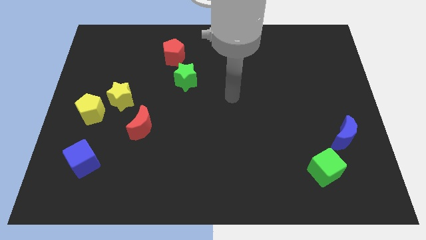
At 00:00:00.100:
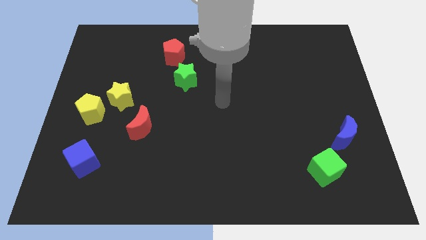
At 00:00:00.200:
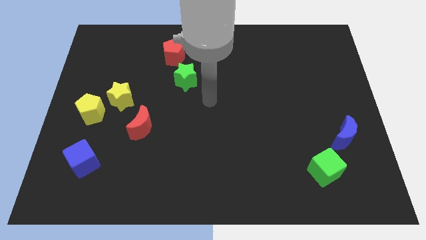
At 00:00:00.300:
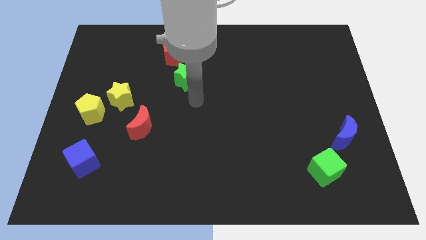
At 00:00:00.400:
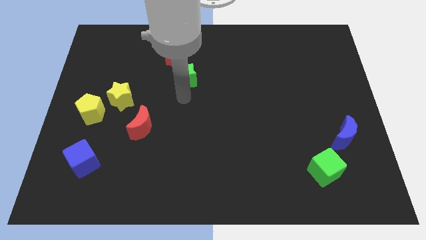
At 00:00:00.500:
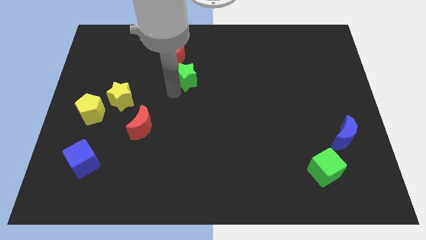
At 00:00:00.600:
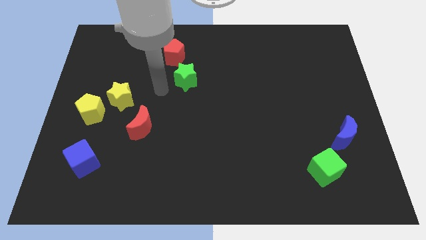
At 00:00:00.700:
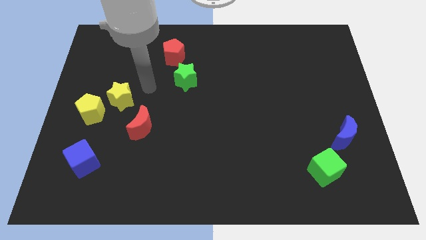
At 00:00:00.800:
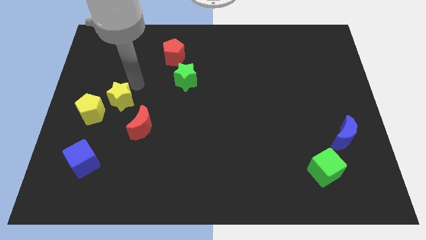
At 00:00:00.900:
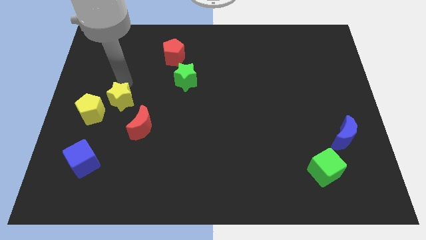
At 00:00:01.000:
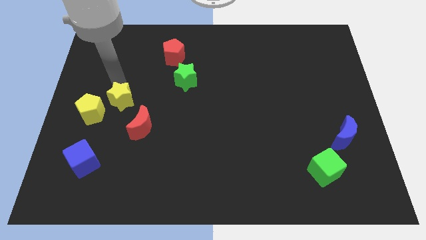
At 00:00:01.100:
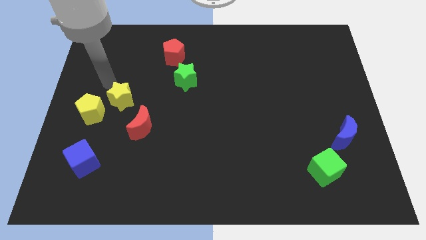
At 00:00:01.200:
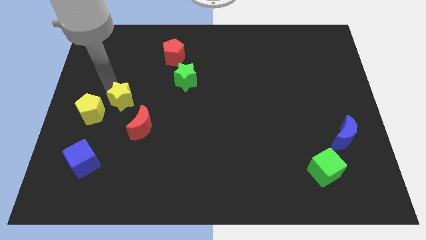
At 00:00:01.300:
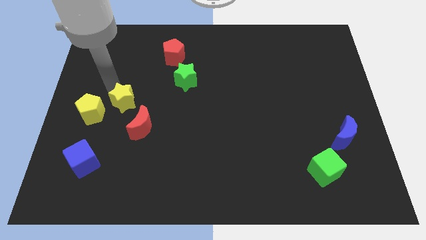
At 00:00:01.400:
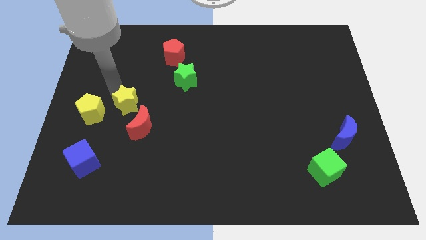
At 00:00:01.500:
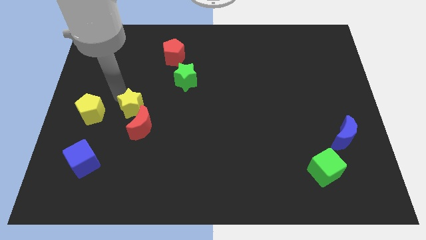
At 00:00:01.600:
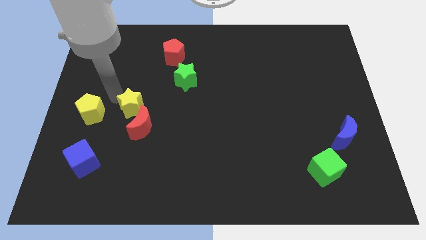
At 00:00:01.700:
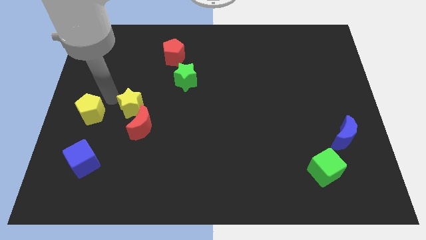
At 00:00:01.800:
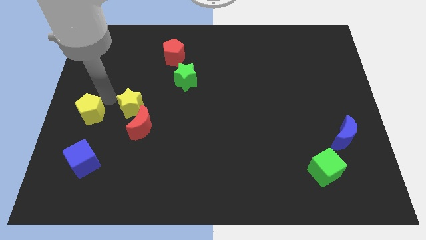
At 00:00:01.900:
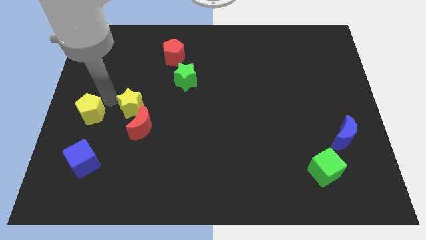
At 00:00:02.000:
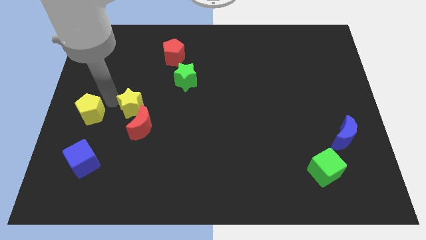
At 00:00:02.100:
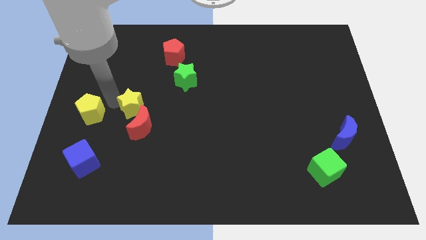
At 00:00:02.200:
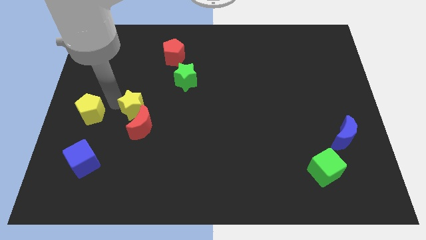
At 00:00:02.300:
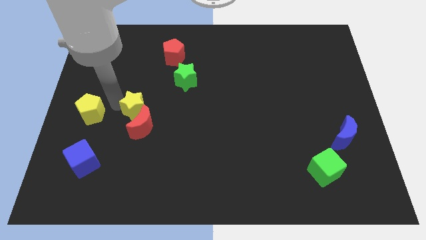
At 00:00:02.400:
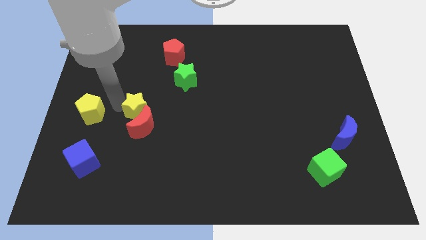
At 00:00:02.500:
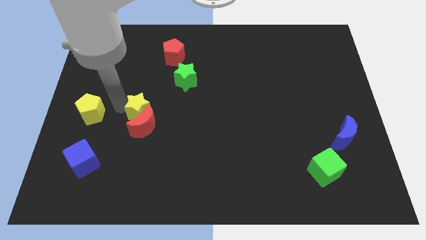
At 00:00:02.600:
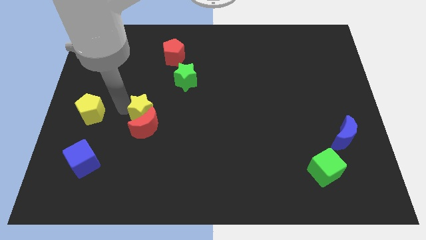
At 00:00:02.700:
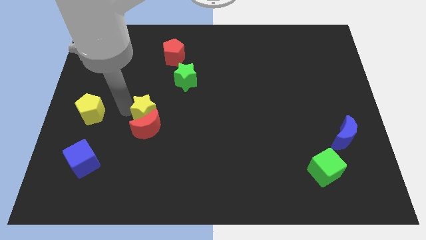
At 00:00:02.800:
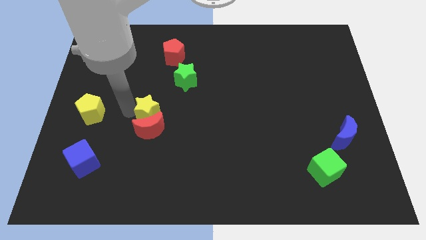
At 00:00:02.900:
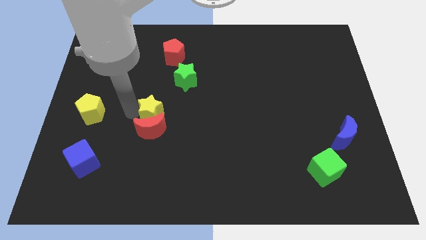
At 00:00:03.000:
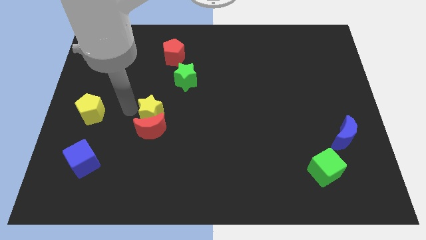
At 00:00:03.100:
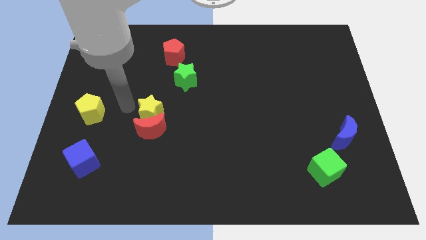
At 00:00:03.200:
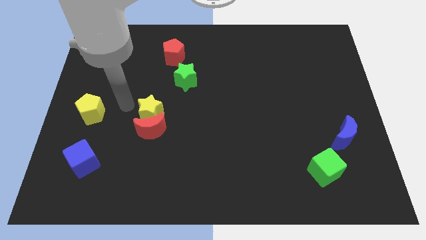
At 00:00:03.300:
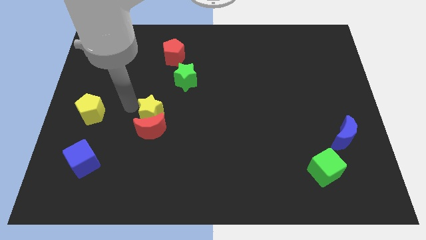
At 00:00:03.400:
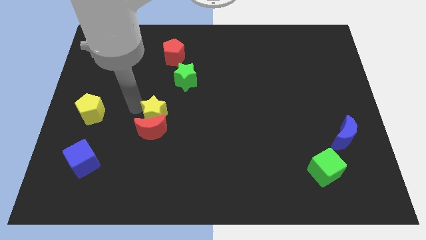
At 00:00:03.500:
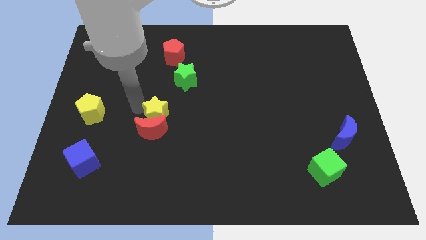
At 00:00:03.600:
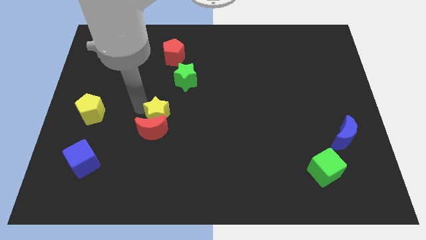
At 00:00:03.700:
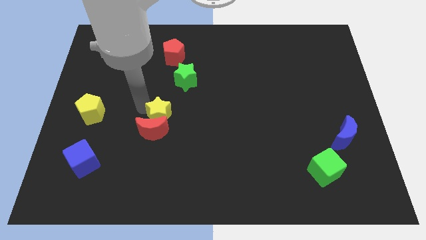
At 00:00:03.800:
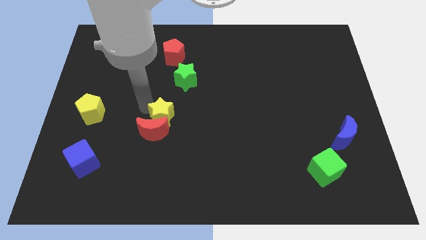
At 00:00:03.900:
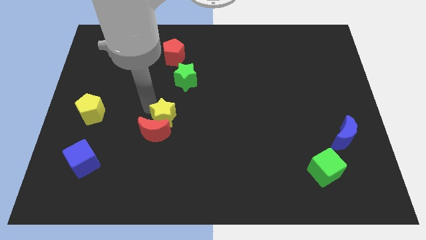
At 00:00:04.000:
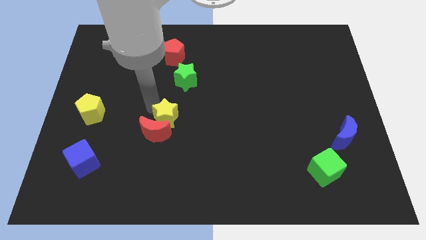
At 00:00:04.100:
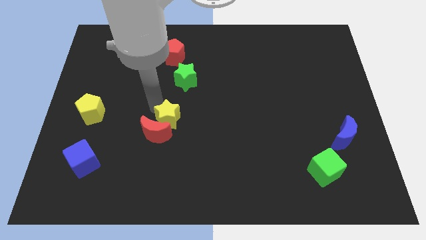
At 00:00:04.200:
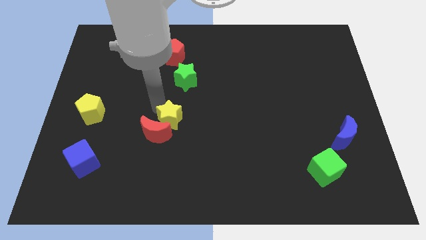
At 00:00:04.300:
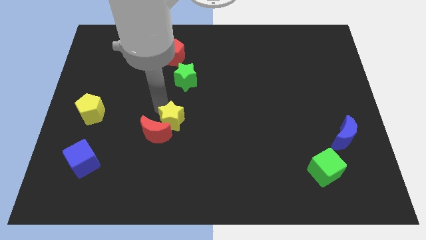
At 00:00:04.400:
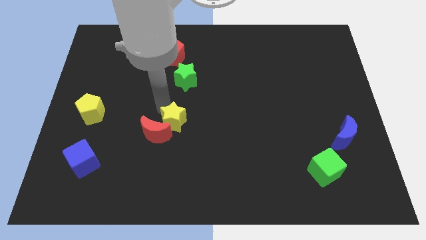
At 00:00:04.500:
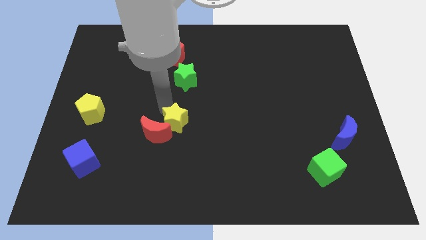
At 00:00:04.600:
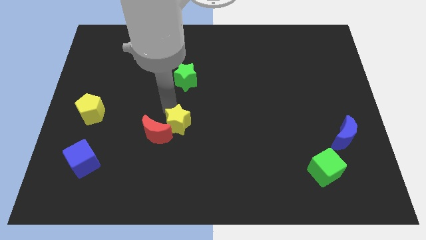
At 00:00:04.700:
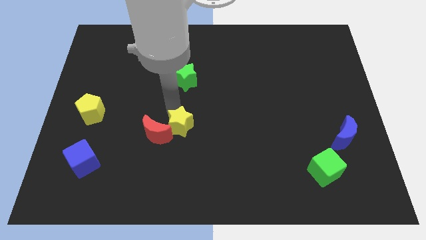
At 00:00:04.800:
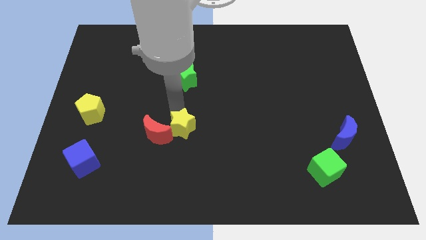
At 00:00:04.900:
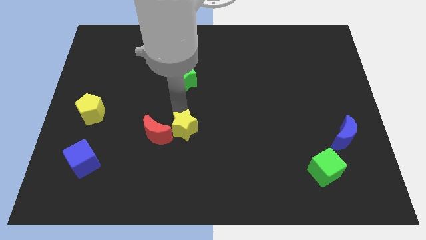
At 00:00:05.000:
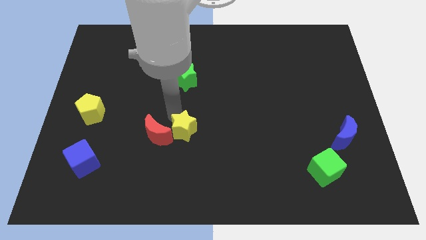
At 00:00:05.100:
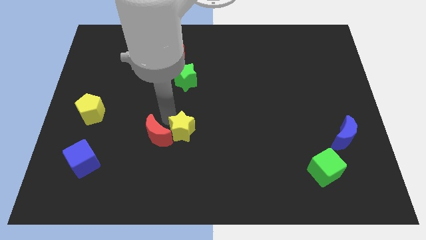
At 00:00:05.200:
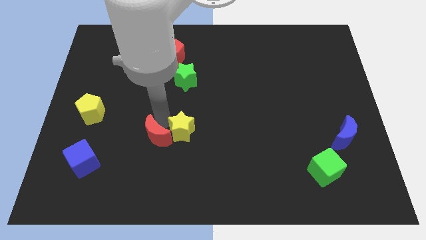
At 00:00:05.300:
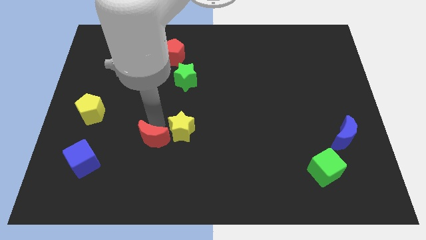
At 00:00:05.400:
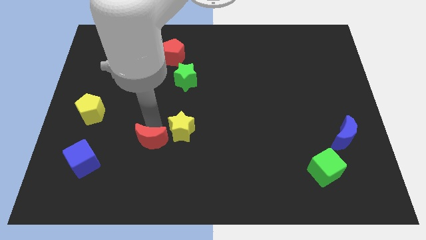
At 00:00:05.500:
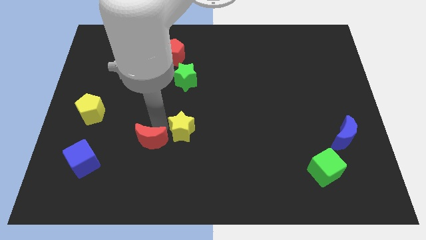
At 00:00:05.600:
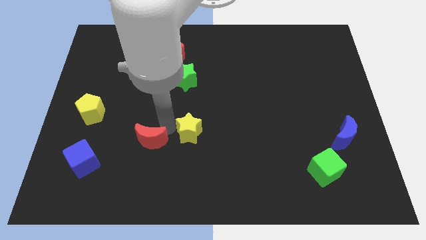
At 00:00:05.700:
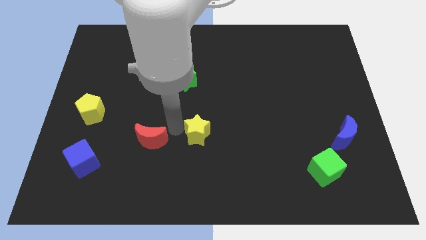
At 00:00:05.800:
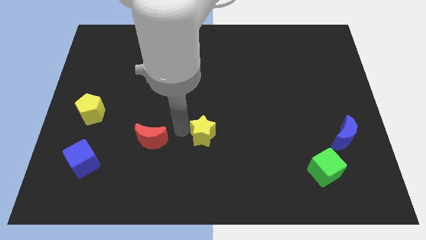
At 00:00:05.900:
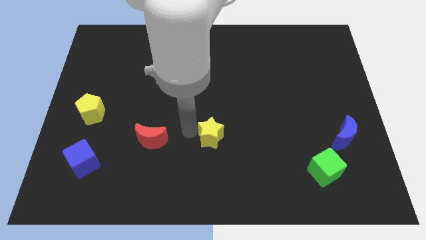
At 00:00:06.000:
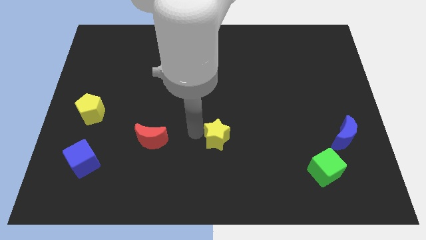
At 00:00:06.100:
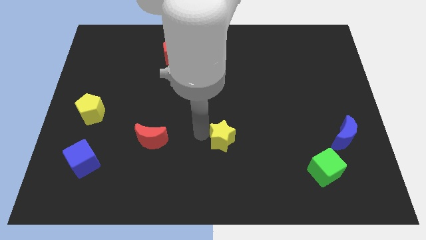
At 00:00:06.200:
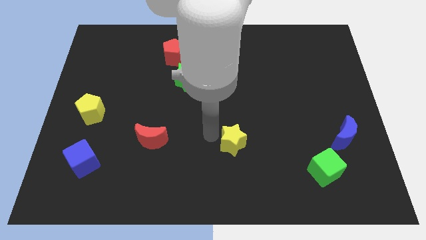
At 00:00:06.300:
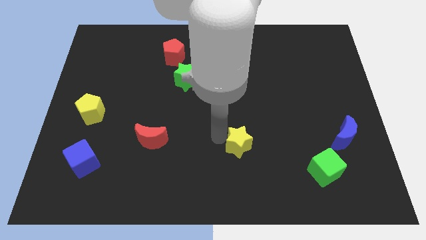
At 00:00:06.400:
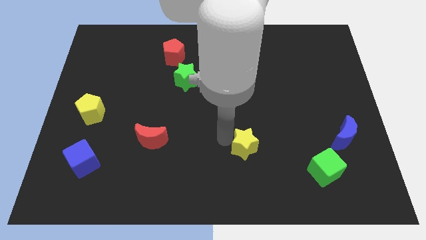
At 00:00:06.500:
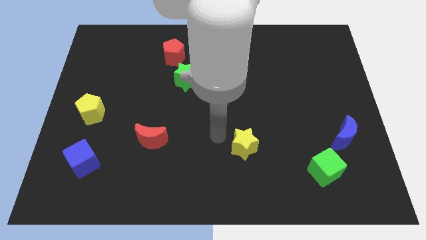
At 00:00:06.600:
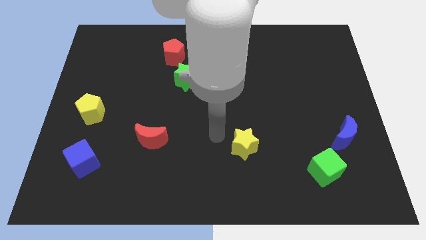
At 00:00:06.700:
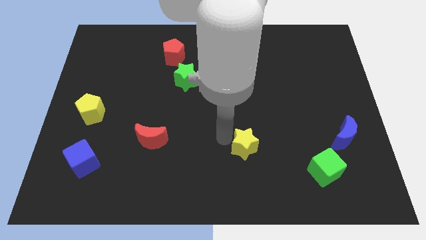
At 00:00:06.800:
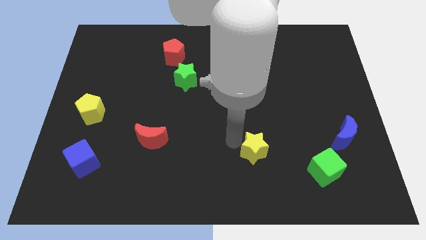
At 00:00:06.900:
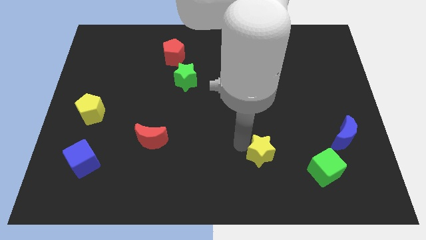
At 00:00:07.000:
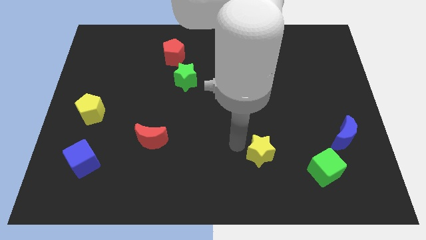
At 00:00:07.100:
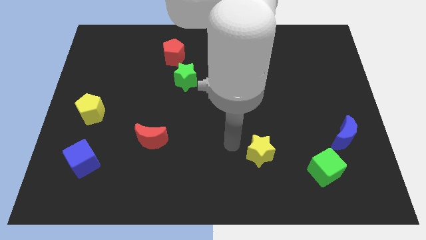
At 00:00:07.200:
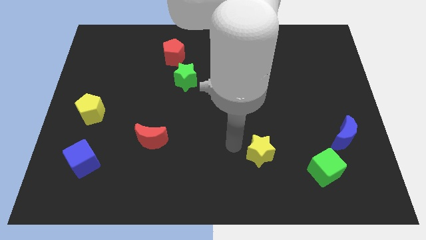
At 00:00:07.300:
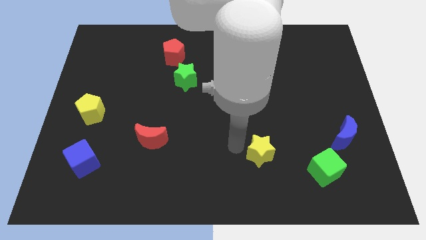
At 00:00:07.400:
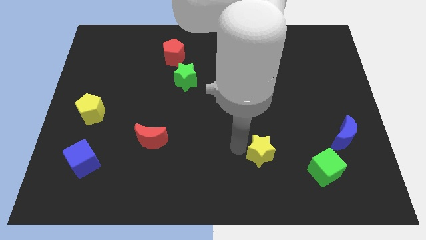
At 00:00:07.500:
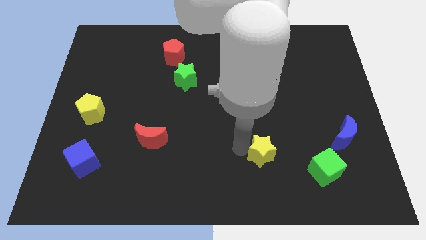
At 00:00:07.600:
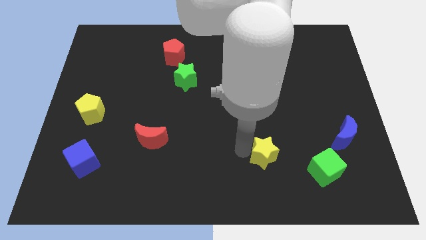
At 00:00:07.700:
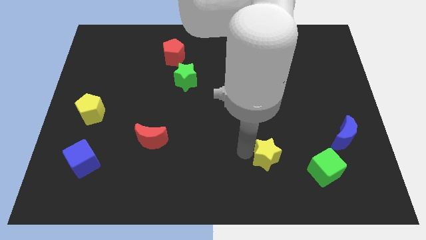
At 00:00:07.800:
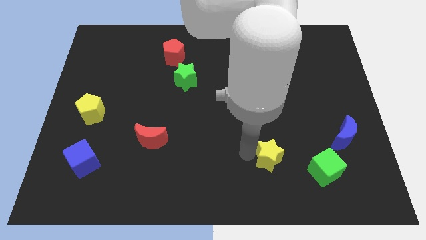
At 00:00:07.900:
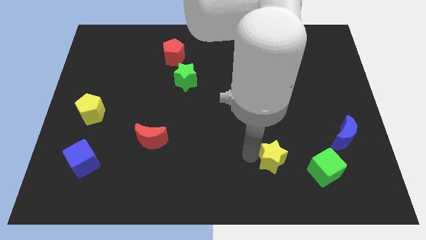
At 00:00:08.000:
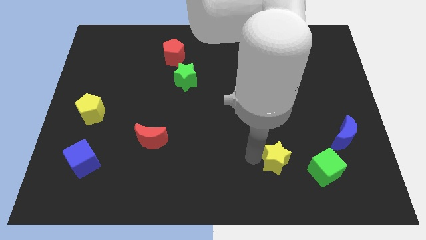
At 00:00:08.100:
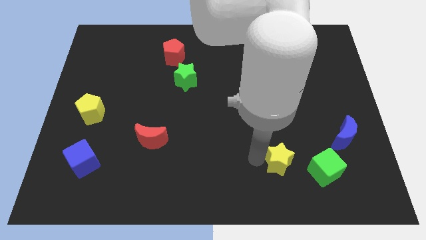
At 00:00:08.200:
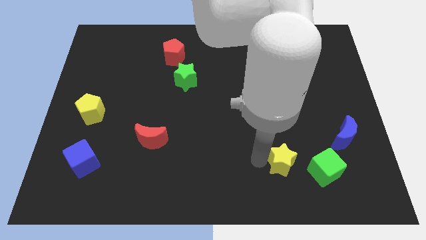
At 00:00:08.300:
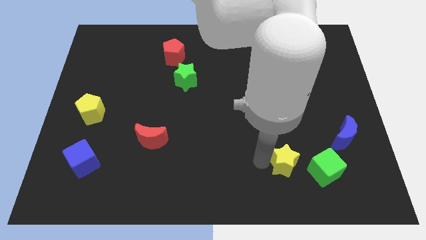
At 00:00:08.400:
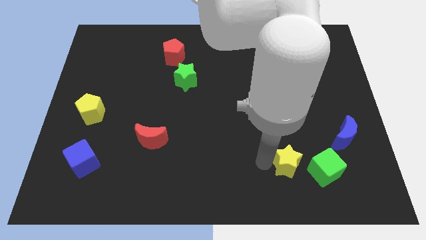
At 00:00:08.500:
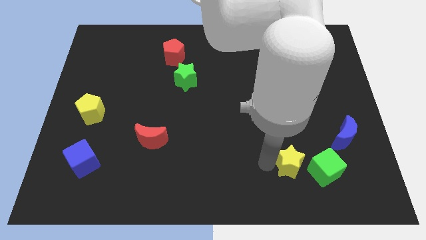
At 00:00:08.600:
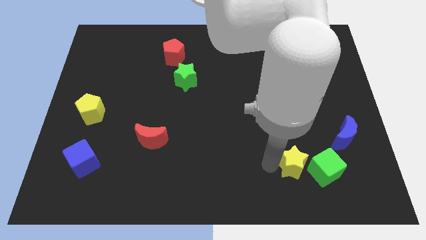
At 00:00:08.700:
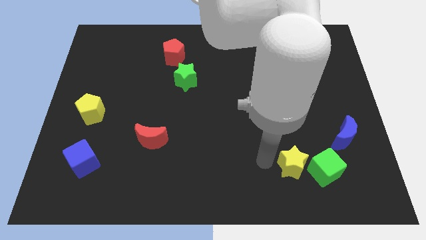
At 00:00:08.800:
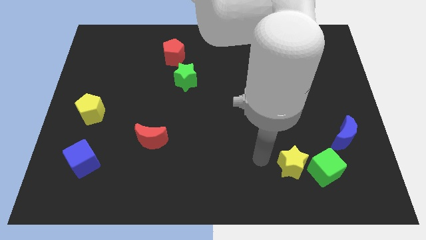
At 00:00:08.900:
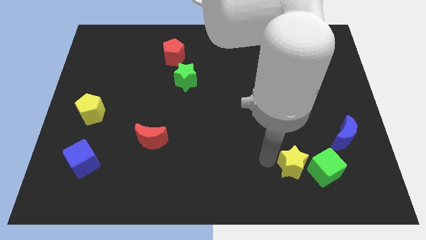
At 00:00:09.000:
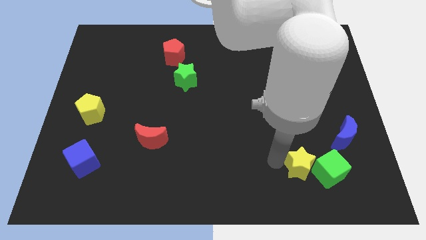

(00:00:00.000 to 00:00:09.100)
put the yellow star next to the green cube
